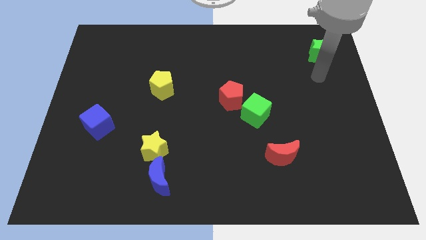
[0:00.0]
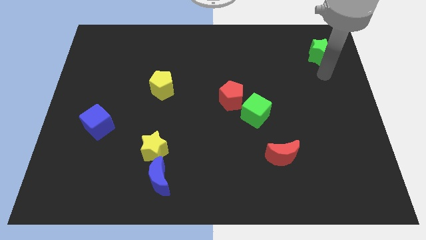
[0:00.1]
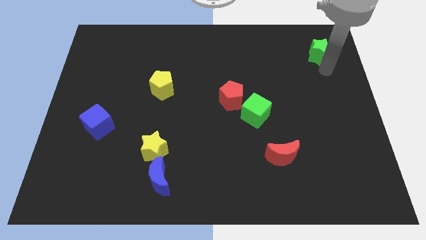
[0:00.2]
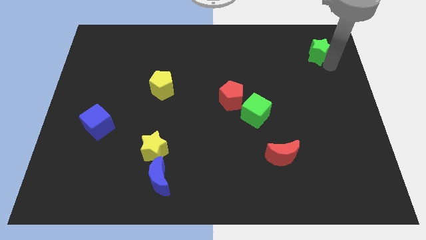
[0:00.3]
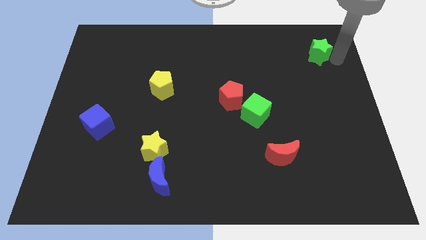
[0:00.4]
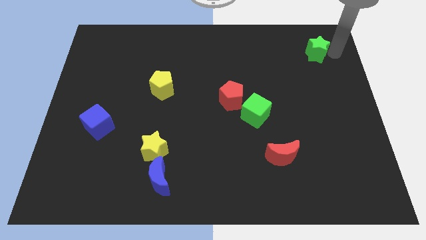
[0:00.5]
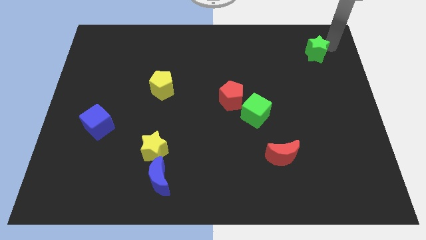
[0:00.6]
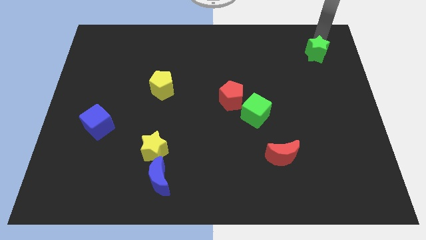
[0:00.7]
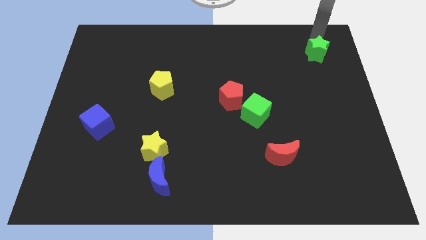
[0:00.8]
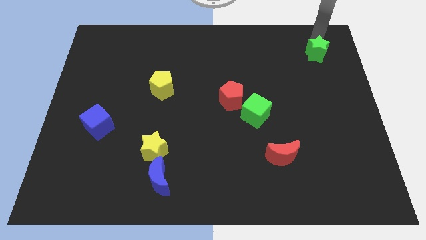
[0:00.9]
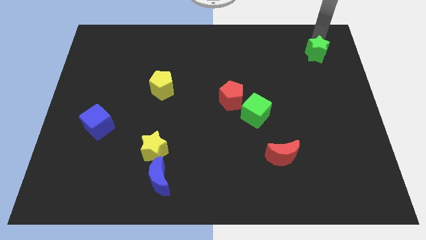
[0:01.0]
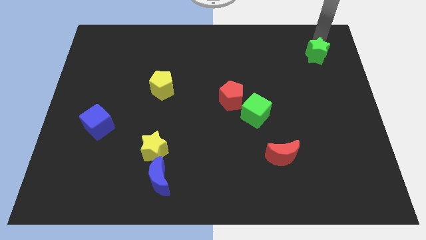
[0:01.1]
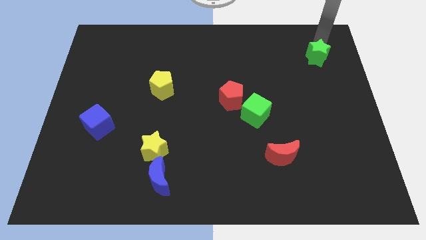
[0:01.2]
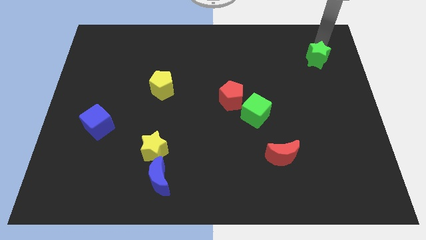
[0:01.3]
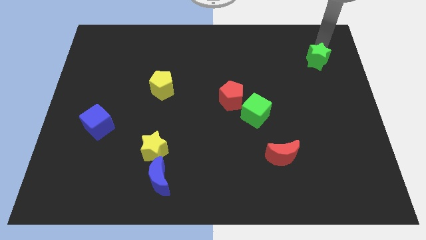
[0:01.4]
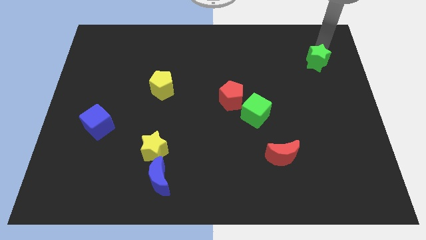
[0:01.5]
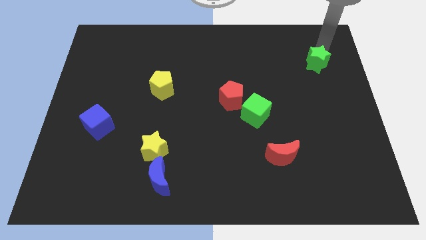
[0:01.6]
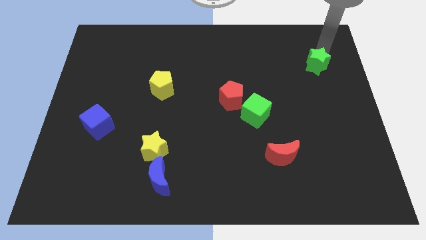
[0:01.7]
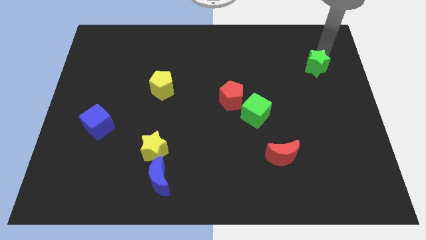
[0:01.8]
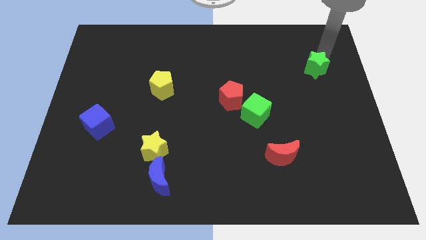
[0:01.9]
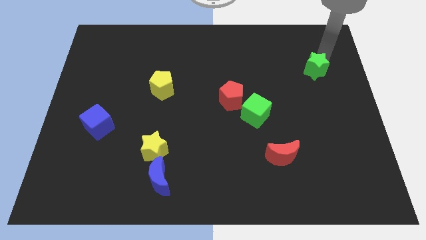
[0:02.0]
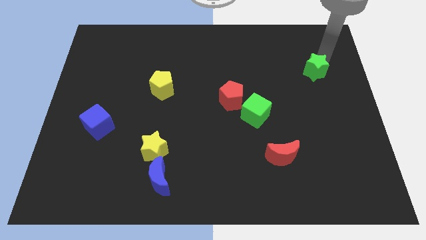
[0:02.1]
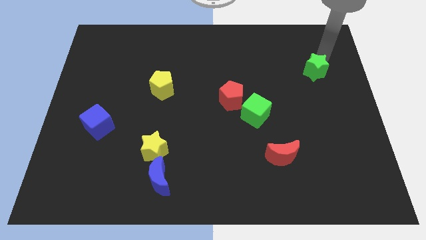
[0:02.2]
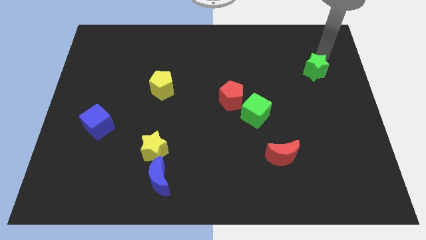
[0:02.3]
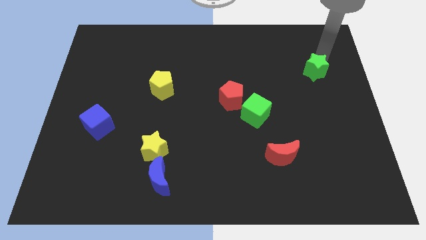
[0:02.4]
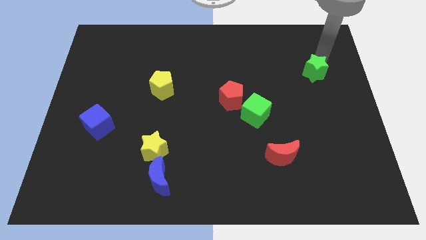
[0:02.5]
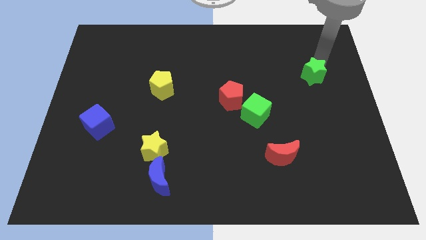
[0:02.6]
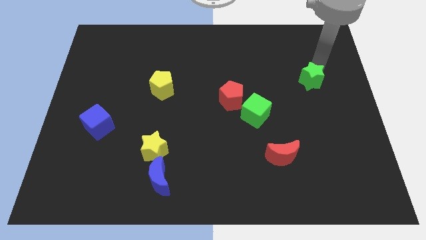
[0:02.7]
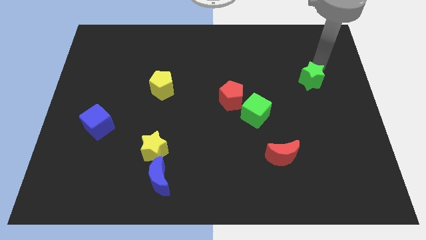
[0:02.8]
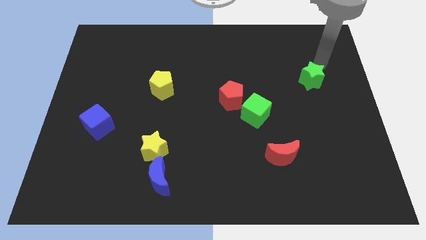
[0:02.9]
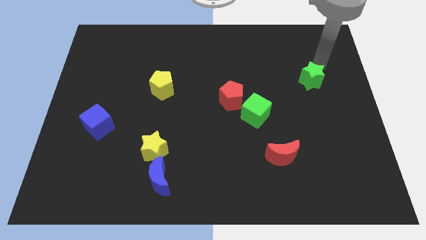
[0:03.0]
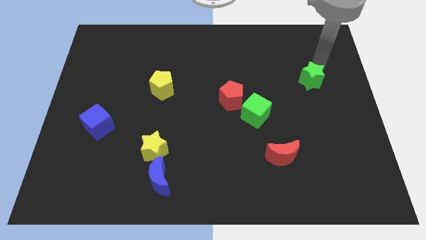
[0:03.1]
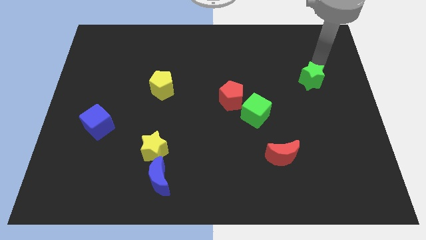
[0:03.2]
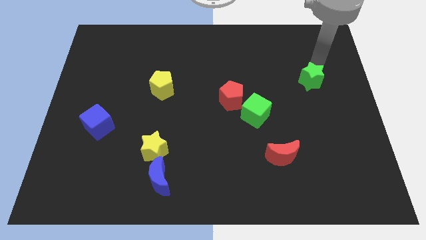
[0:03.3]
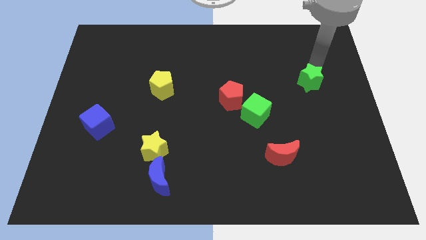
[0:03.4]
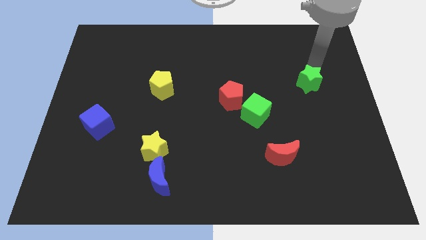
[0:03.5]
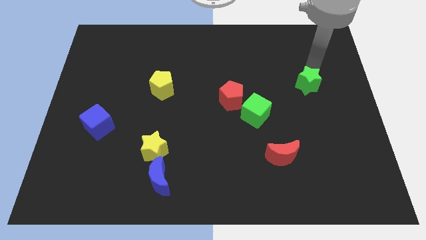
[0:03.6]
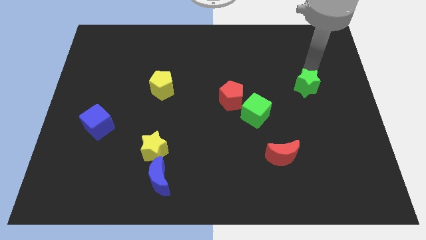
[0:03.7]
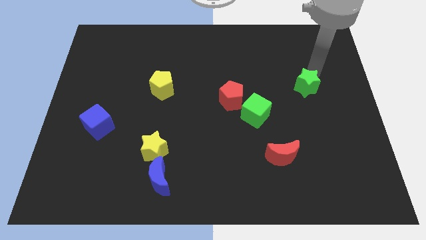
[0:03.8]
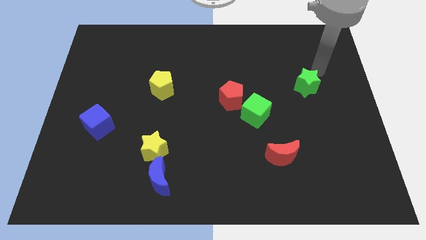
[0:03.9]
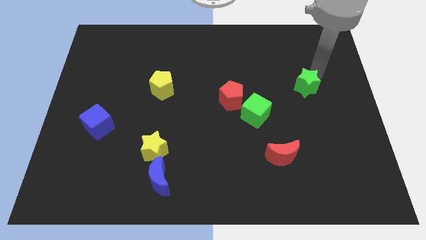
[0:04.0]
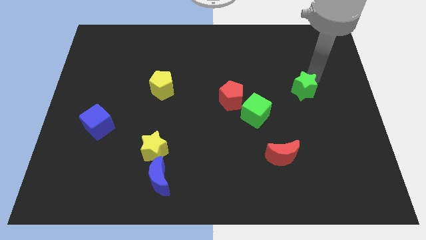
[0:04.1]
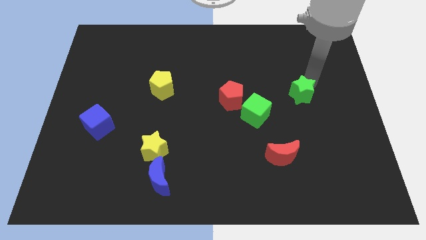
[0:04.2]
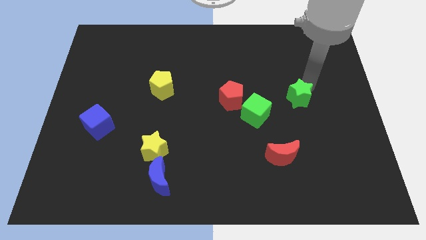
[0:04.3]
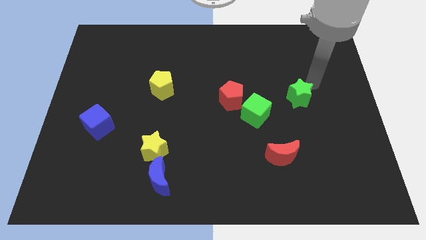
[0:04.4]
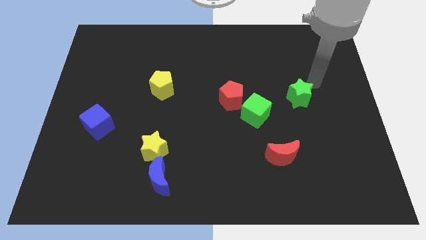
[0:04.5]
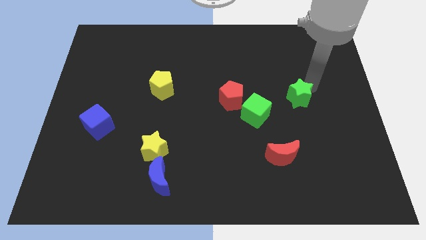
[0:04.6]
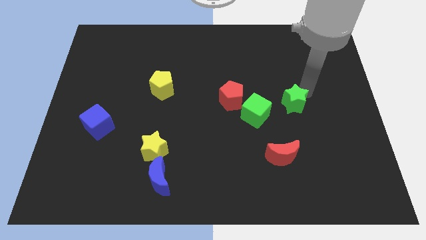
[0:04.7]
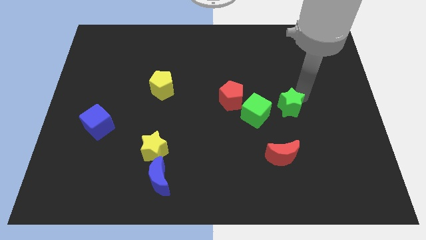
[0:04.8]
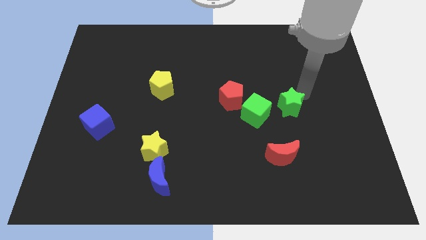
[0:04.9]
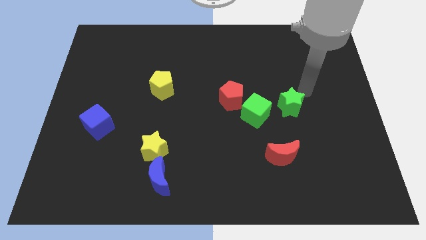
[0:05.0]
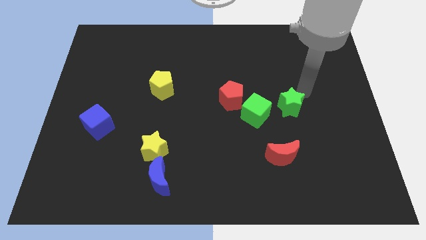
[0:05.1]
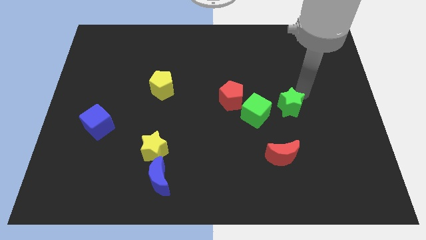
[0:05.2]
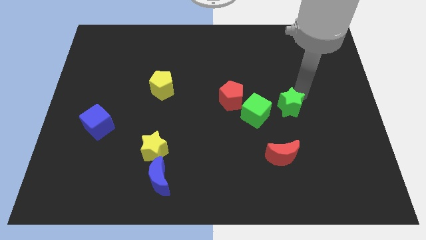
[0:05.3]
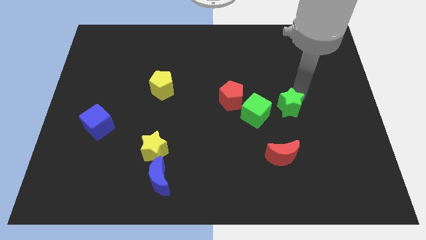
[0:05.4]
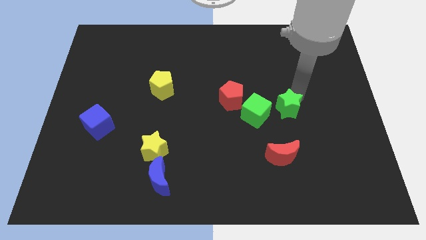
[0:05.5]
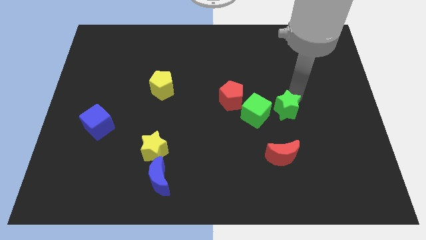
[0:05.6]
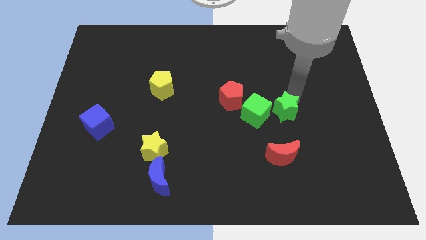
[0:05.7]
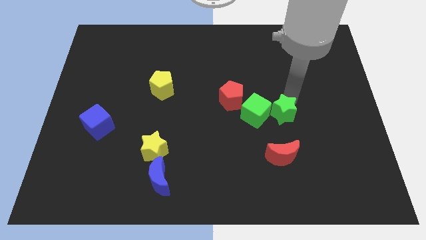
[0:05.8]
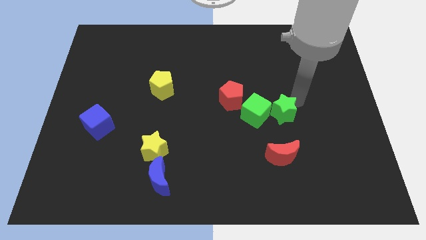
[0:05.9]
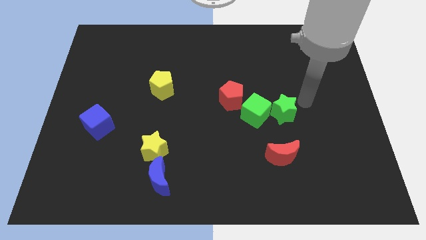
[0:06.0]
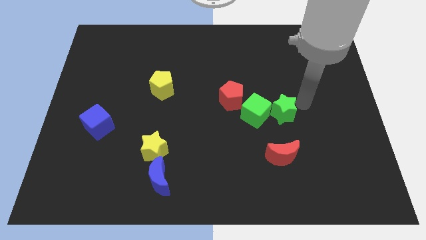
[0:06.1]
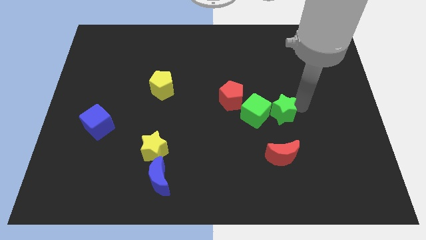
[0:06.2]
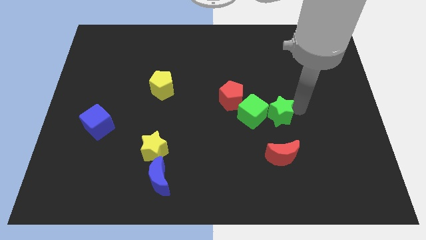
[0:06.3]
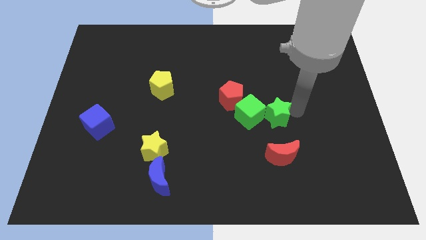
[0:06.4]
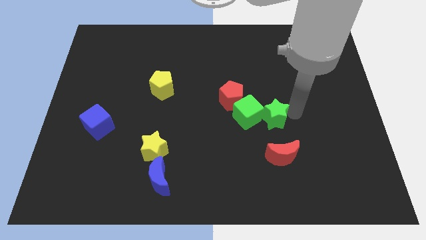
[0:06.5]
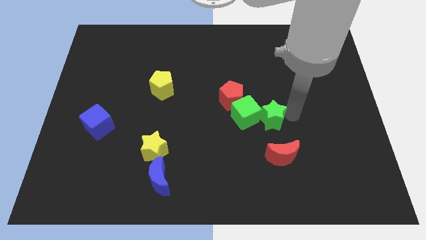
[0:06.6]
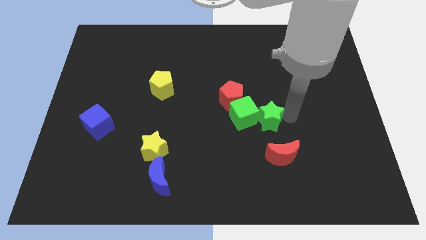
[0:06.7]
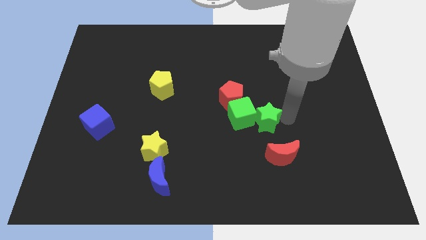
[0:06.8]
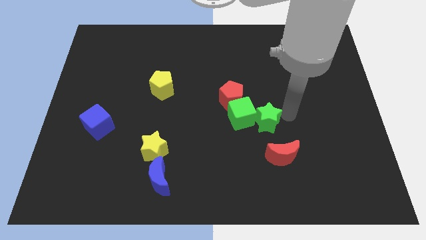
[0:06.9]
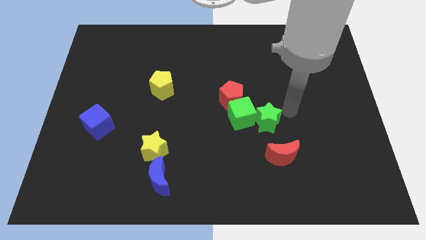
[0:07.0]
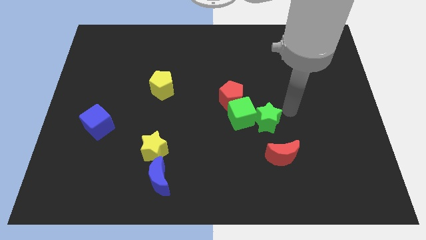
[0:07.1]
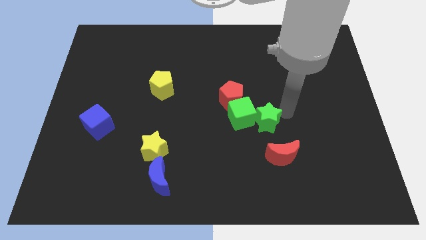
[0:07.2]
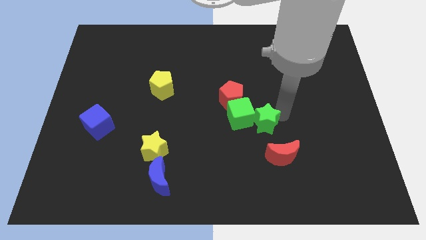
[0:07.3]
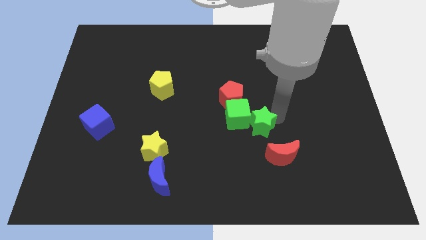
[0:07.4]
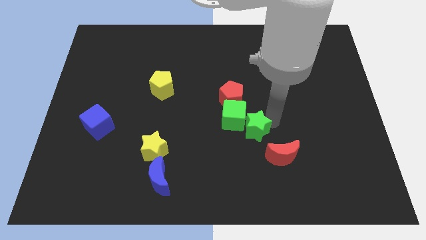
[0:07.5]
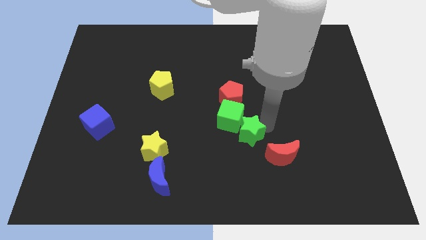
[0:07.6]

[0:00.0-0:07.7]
push the green star to the bottom side of the red pentagon
